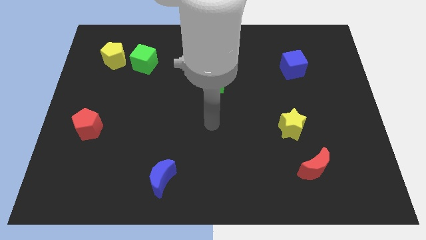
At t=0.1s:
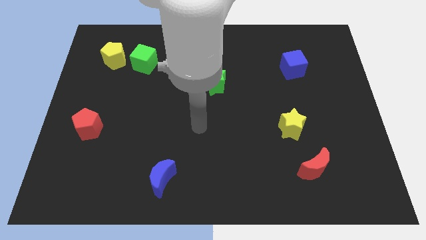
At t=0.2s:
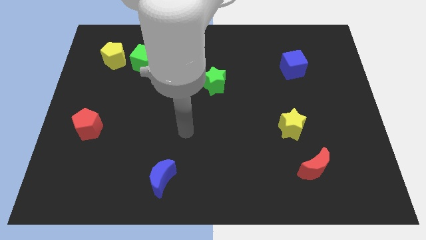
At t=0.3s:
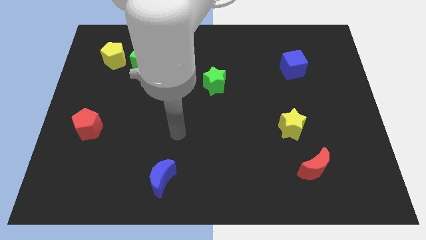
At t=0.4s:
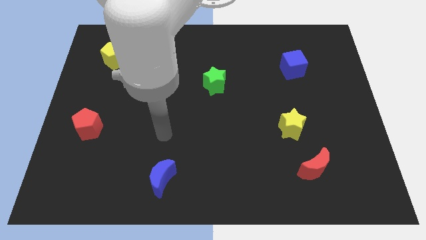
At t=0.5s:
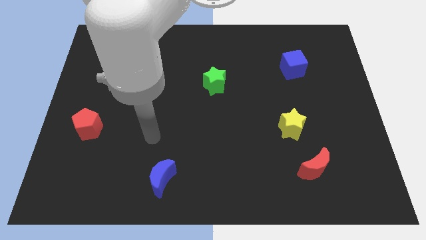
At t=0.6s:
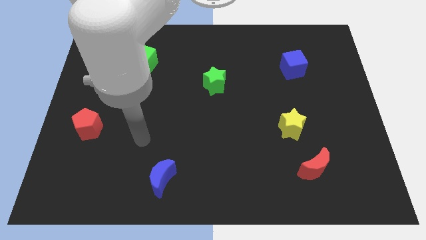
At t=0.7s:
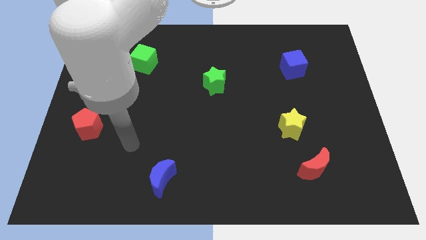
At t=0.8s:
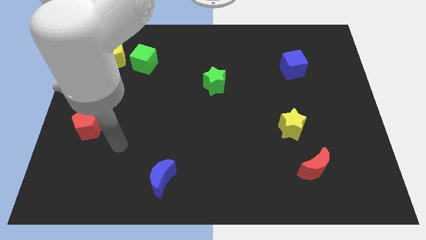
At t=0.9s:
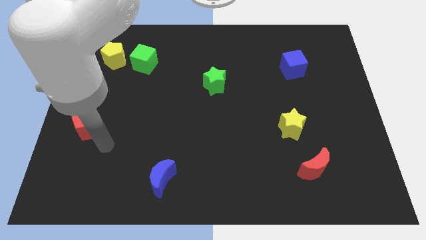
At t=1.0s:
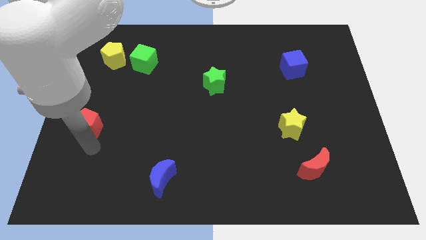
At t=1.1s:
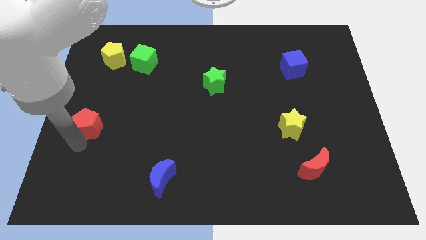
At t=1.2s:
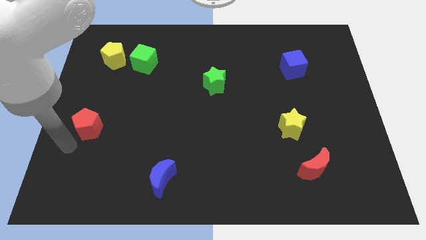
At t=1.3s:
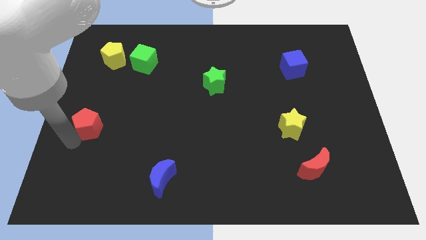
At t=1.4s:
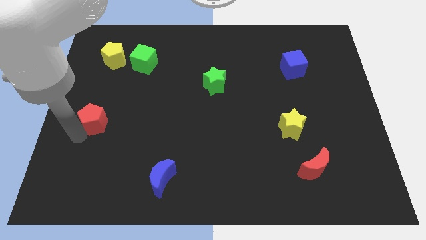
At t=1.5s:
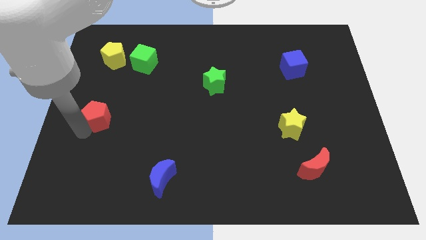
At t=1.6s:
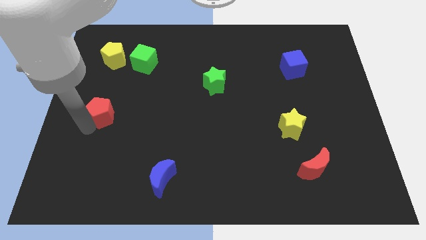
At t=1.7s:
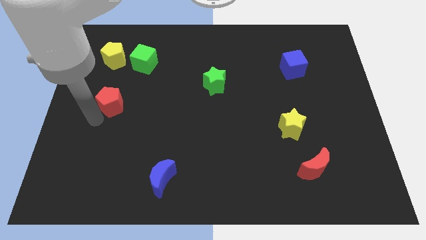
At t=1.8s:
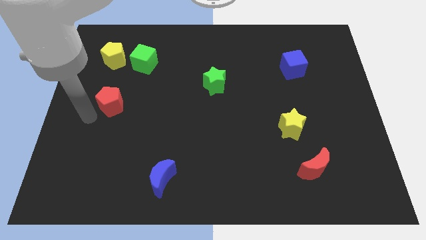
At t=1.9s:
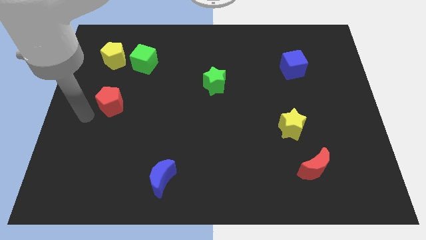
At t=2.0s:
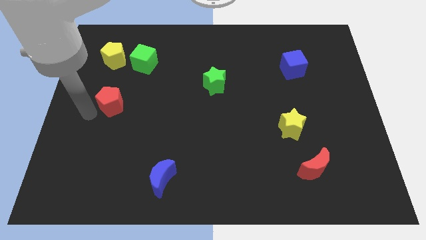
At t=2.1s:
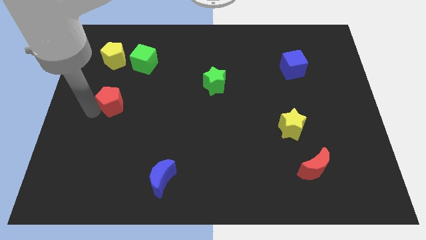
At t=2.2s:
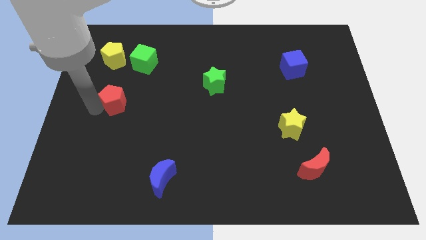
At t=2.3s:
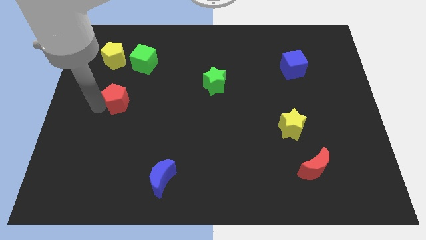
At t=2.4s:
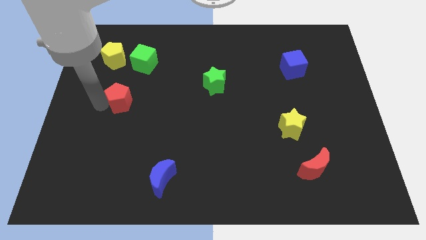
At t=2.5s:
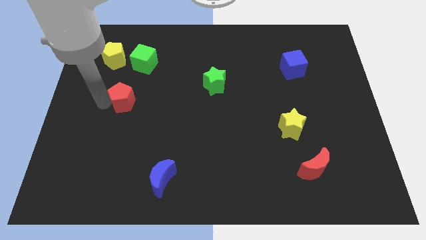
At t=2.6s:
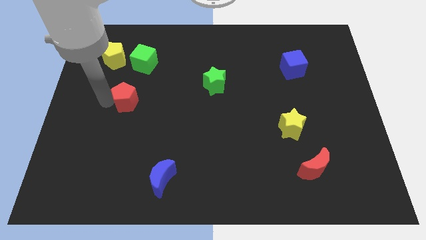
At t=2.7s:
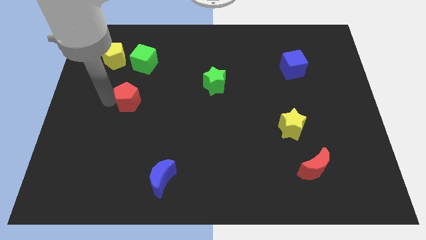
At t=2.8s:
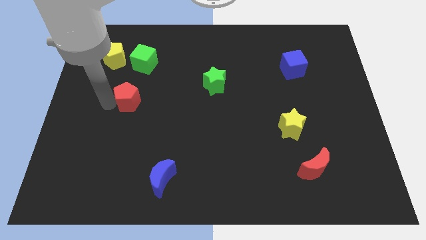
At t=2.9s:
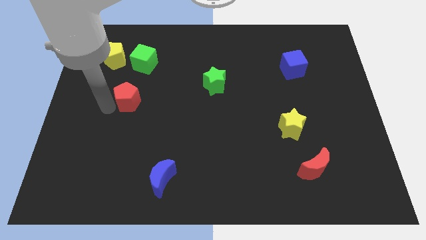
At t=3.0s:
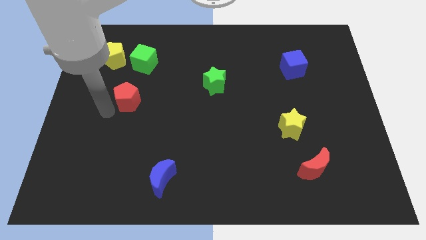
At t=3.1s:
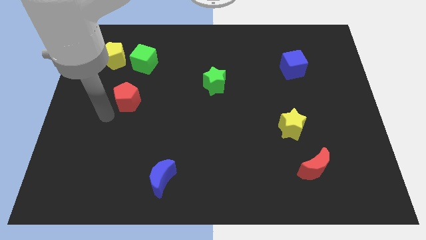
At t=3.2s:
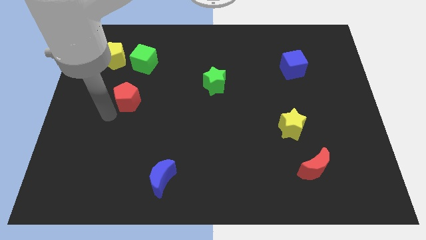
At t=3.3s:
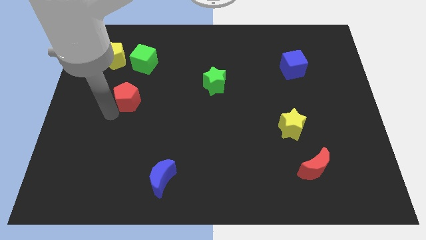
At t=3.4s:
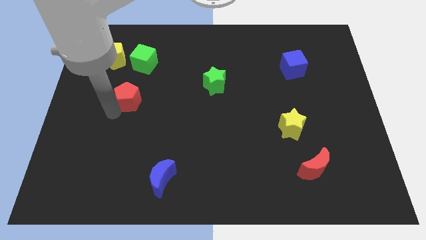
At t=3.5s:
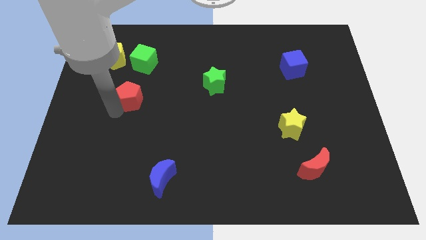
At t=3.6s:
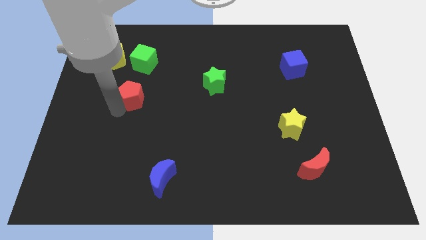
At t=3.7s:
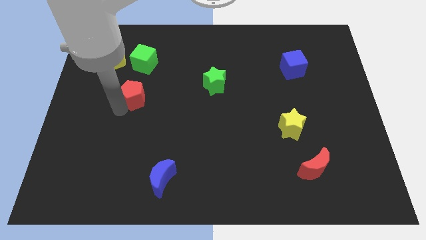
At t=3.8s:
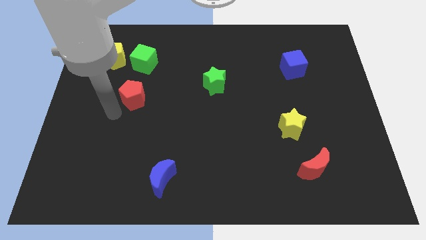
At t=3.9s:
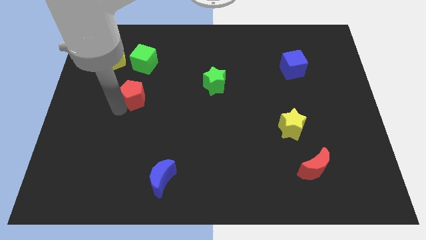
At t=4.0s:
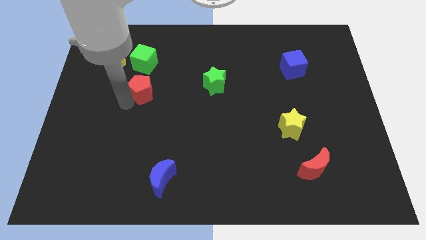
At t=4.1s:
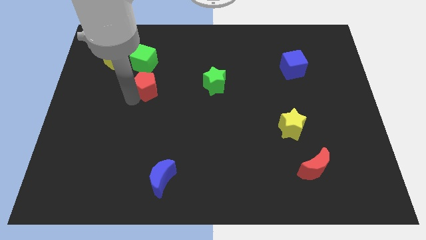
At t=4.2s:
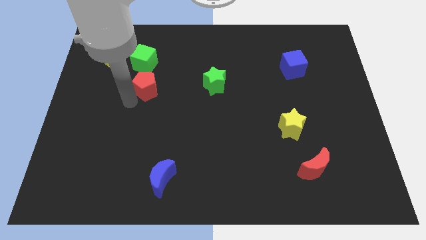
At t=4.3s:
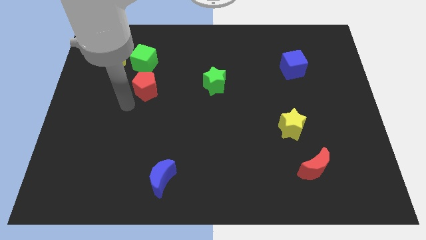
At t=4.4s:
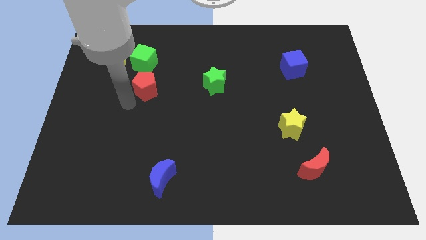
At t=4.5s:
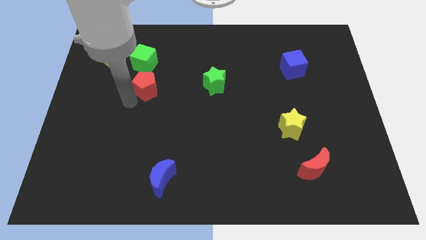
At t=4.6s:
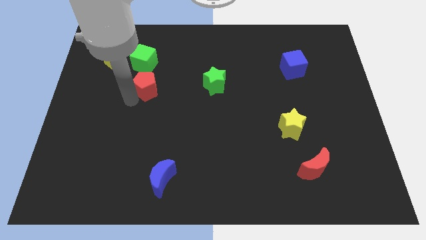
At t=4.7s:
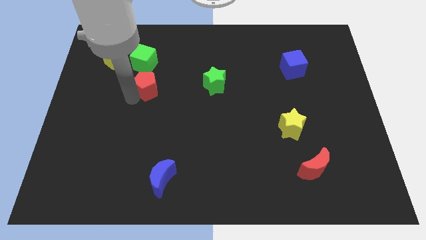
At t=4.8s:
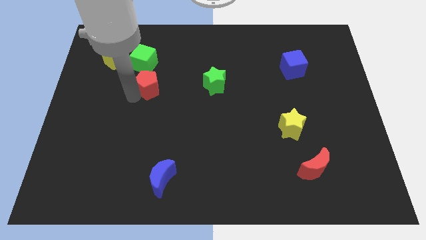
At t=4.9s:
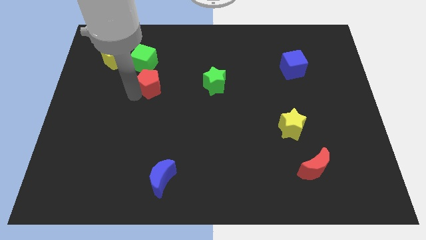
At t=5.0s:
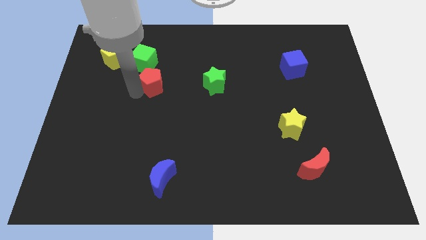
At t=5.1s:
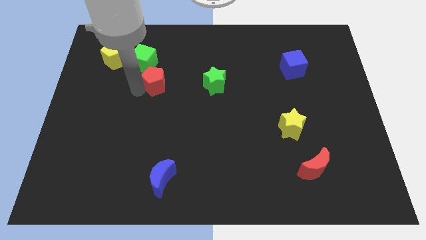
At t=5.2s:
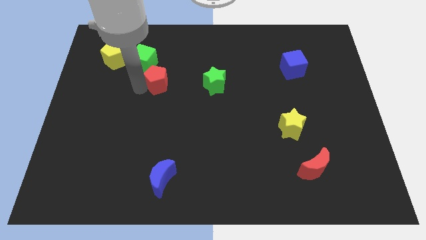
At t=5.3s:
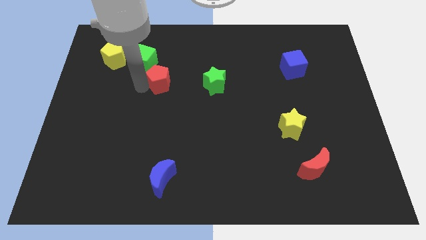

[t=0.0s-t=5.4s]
move the red pentagon upwards and to the right diagonally

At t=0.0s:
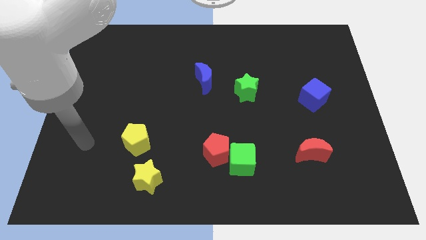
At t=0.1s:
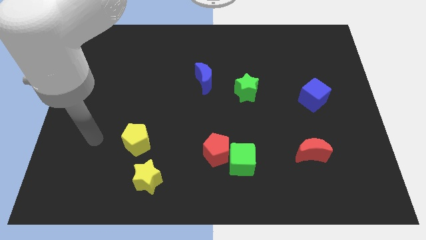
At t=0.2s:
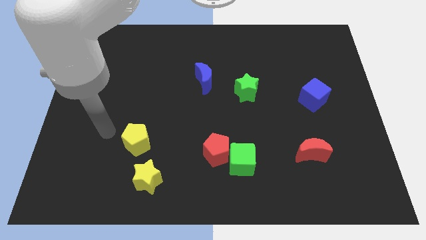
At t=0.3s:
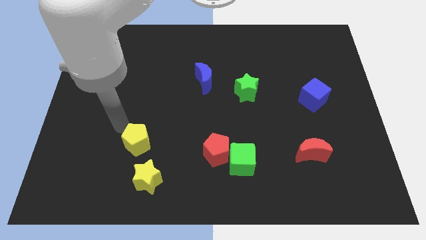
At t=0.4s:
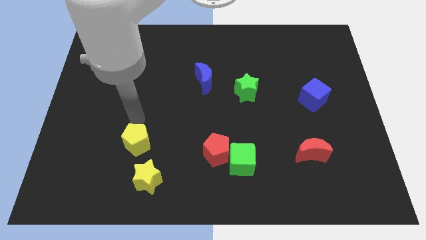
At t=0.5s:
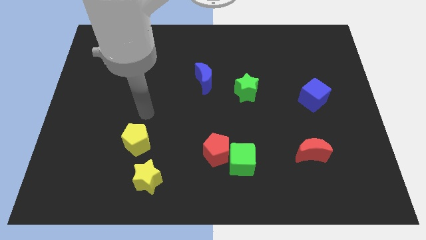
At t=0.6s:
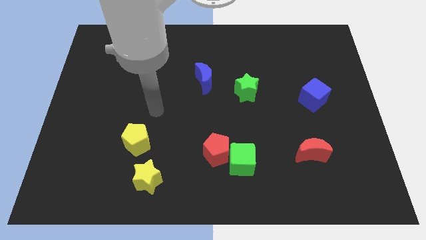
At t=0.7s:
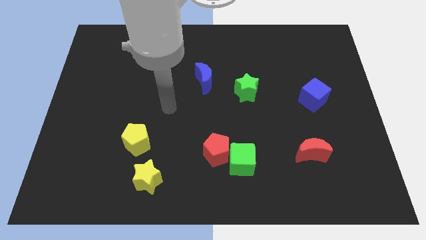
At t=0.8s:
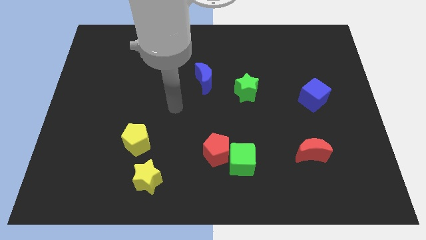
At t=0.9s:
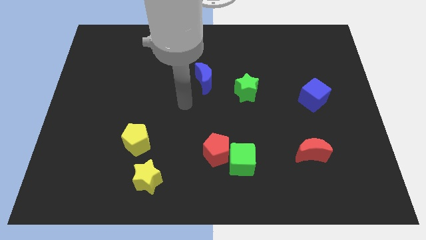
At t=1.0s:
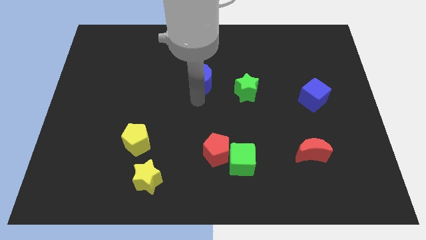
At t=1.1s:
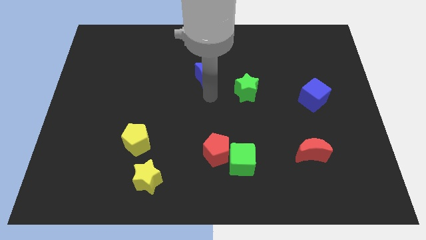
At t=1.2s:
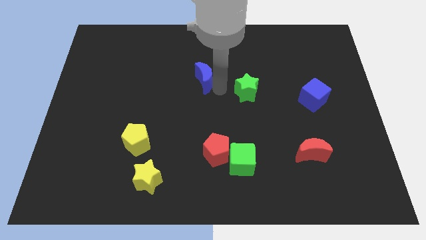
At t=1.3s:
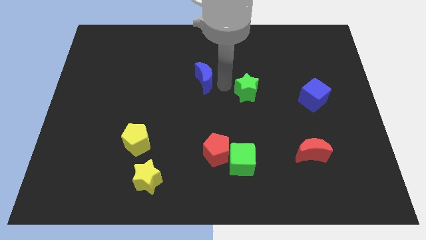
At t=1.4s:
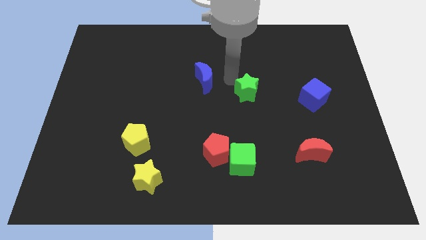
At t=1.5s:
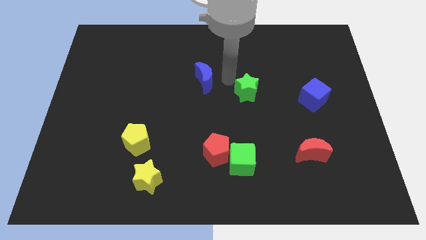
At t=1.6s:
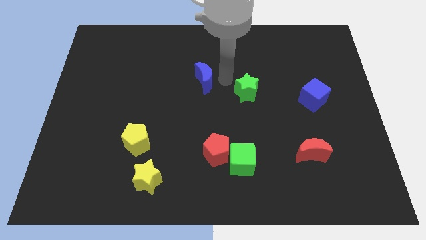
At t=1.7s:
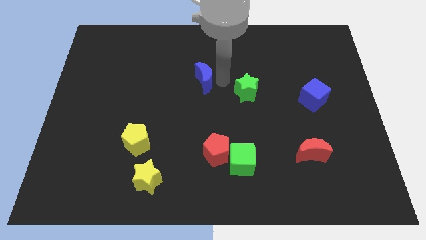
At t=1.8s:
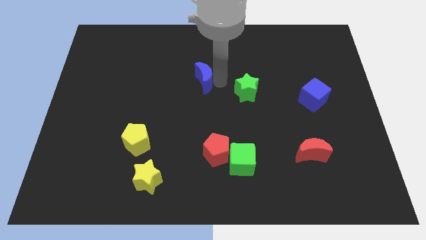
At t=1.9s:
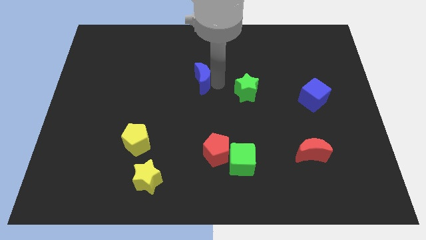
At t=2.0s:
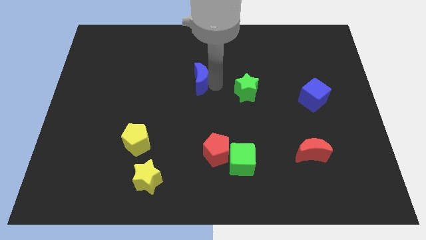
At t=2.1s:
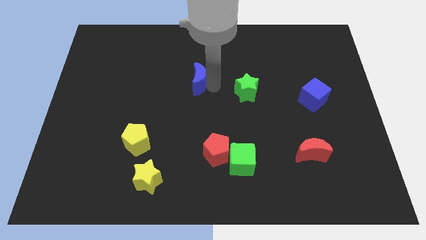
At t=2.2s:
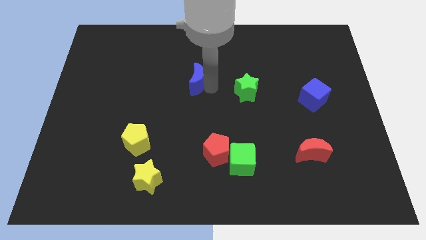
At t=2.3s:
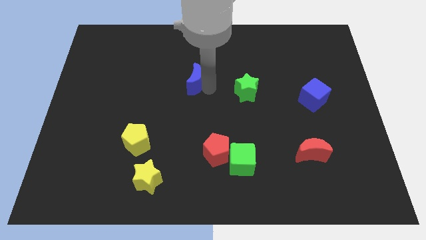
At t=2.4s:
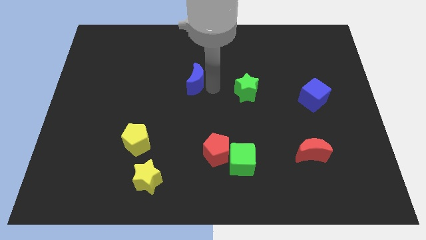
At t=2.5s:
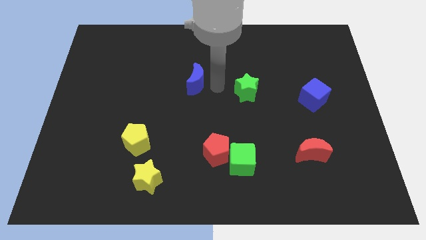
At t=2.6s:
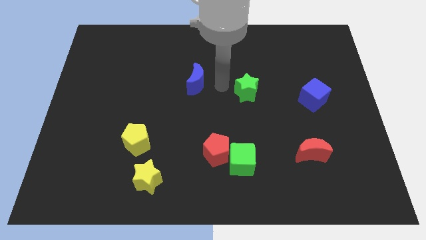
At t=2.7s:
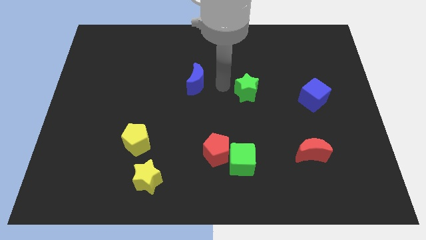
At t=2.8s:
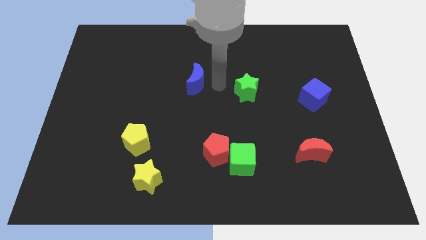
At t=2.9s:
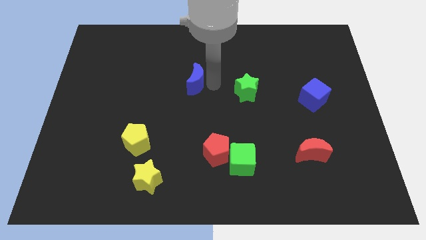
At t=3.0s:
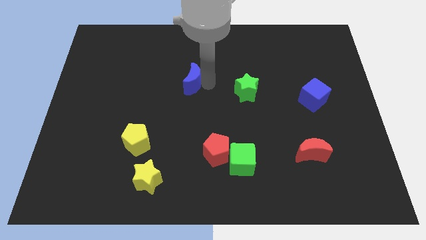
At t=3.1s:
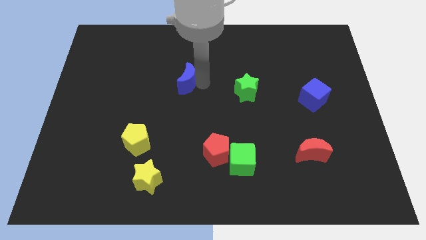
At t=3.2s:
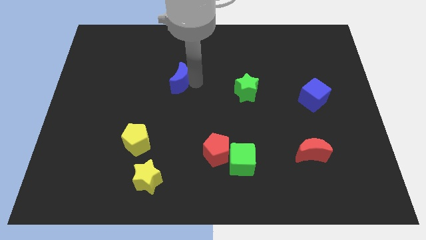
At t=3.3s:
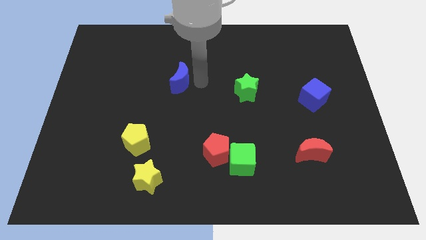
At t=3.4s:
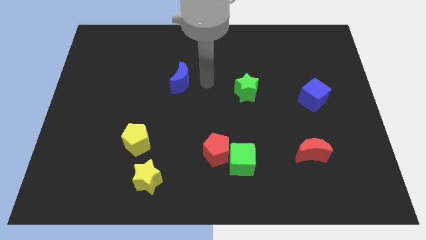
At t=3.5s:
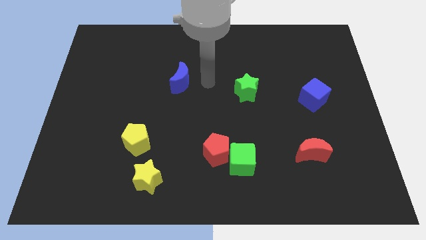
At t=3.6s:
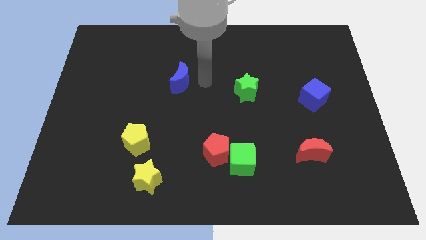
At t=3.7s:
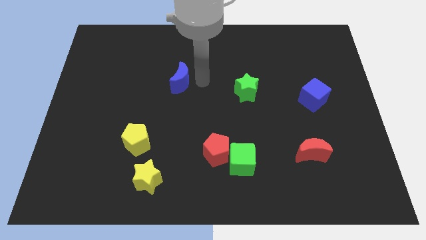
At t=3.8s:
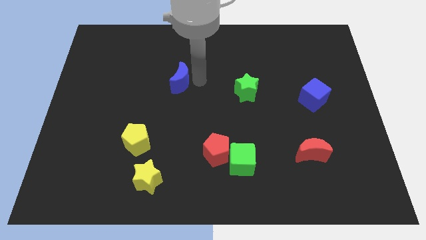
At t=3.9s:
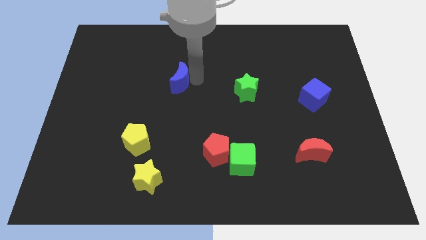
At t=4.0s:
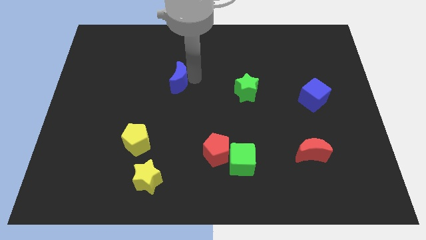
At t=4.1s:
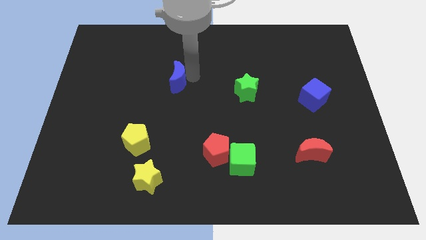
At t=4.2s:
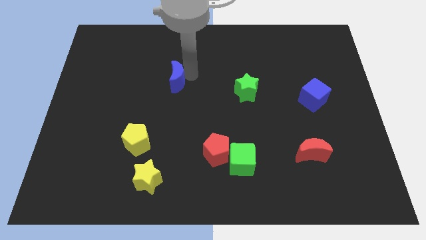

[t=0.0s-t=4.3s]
slide the blue moon to the left slightly
